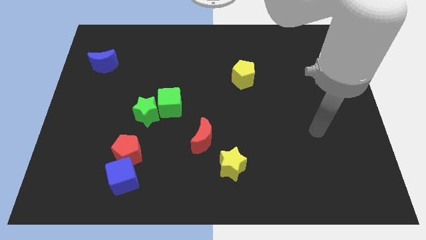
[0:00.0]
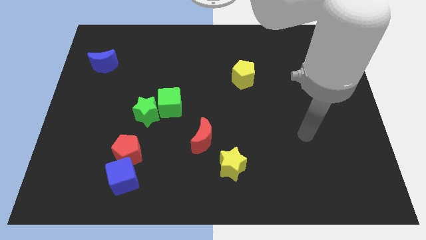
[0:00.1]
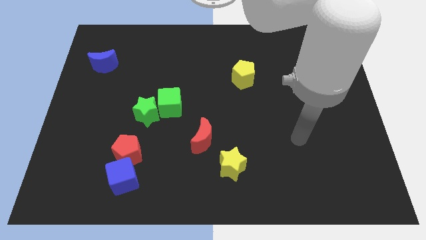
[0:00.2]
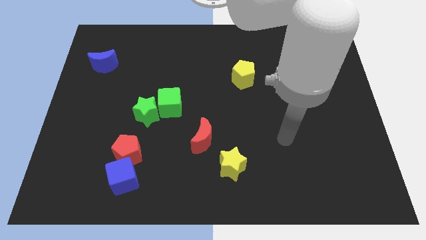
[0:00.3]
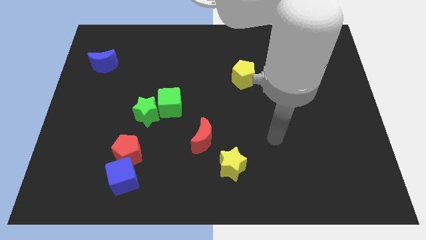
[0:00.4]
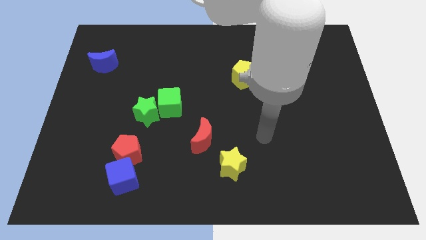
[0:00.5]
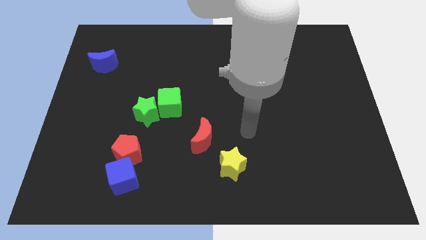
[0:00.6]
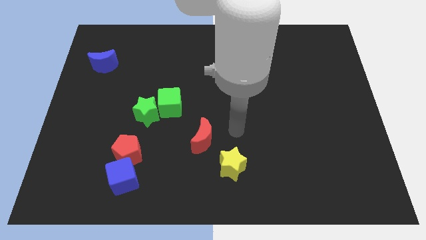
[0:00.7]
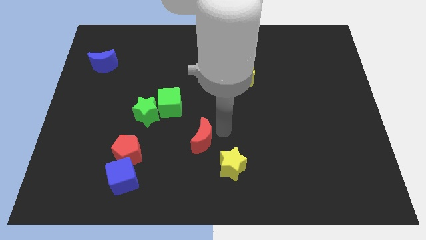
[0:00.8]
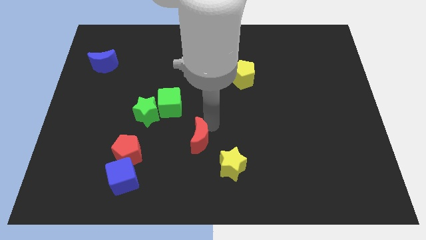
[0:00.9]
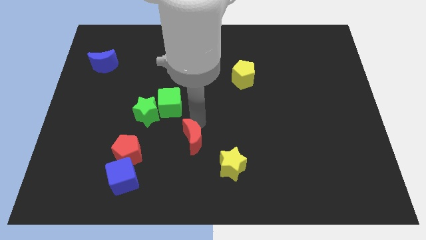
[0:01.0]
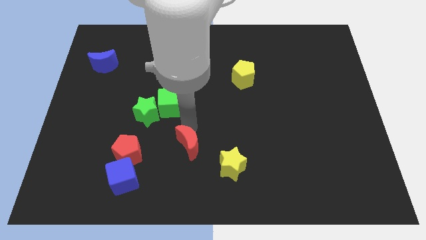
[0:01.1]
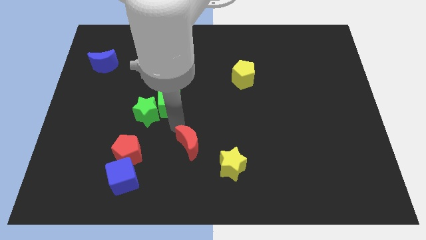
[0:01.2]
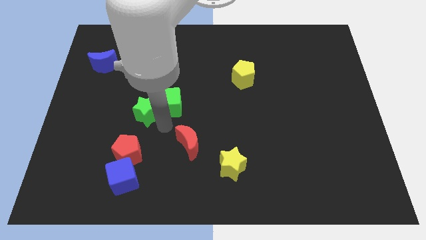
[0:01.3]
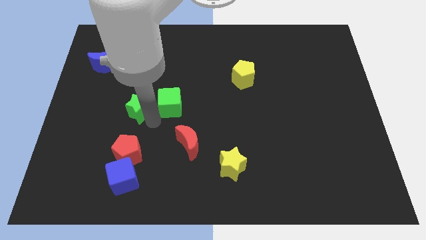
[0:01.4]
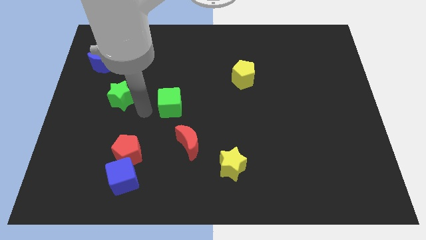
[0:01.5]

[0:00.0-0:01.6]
move the green cube away from the green star

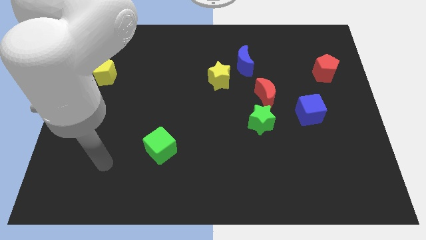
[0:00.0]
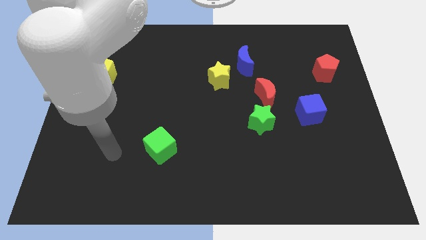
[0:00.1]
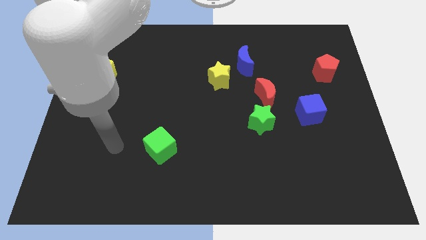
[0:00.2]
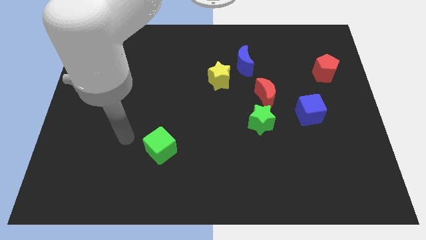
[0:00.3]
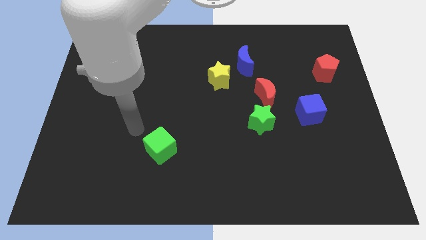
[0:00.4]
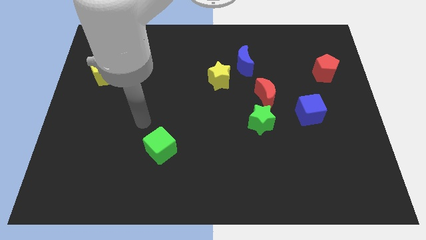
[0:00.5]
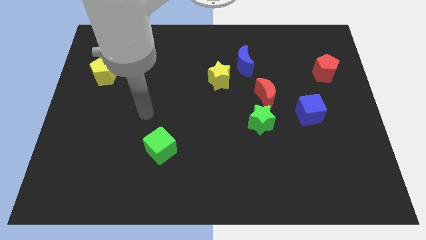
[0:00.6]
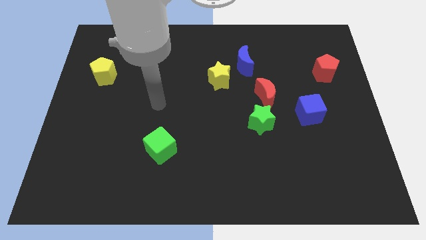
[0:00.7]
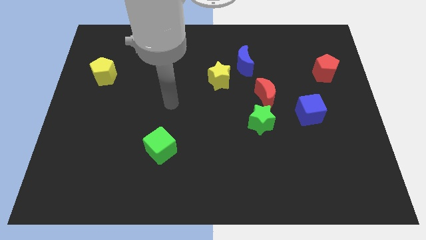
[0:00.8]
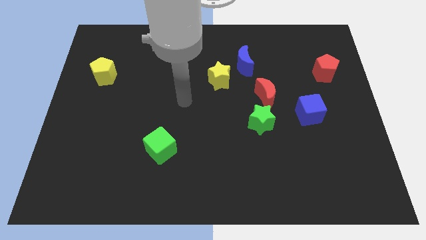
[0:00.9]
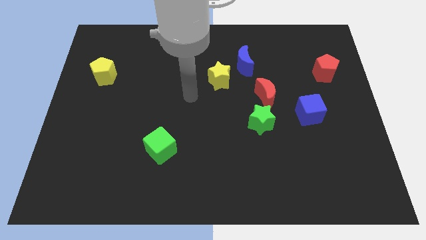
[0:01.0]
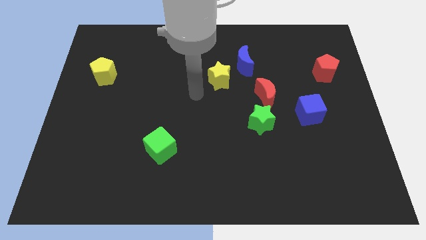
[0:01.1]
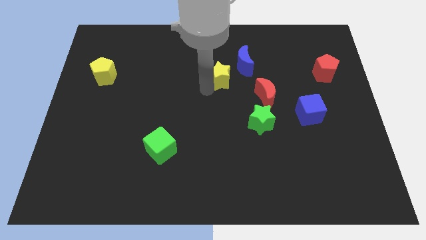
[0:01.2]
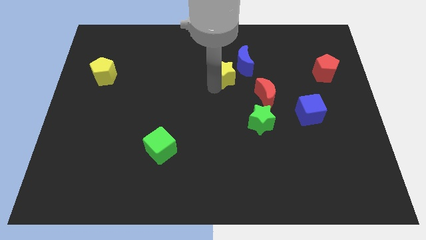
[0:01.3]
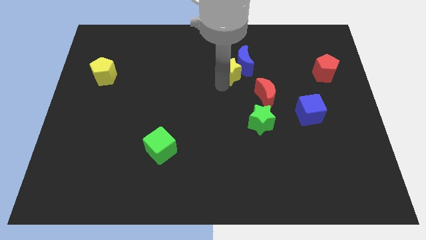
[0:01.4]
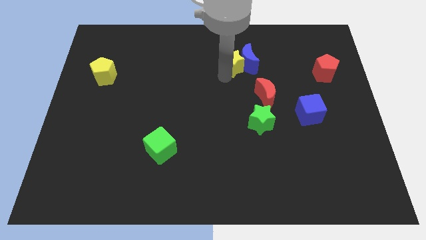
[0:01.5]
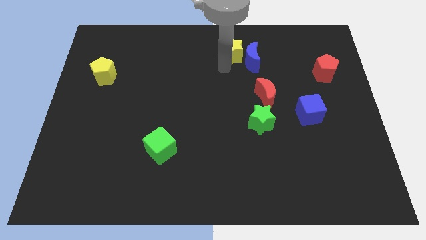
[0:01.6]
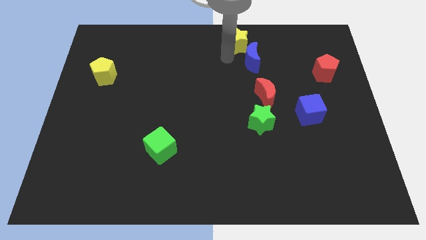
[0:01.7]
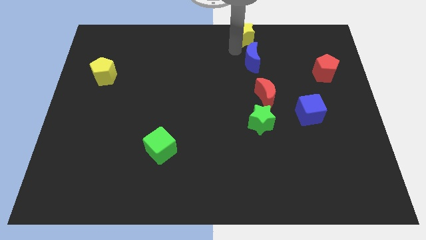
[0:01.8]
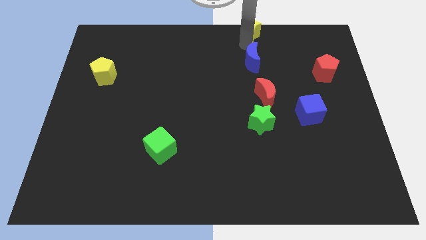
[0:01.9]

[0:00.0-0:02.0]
move the blue moon away from the yellow star

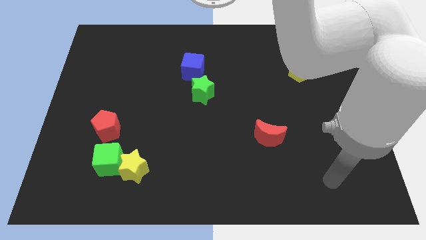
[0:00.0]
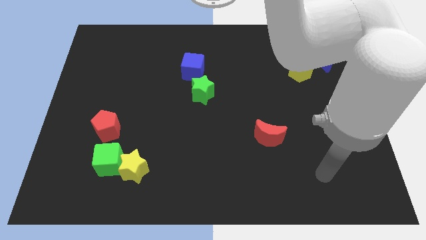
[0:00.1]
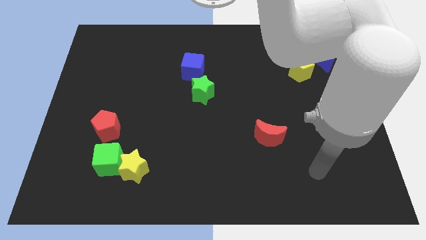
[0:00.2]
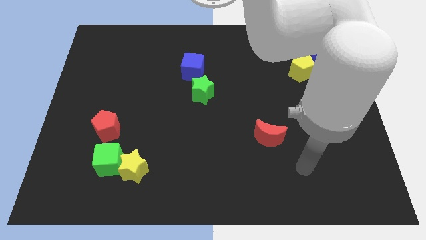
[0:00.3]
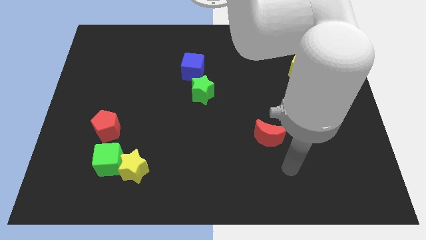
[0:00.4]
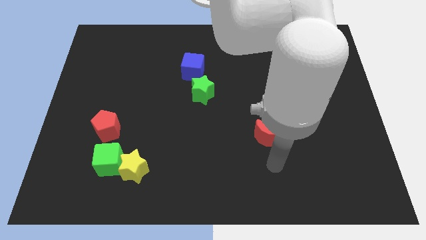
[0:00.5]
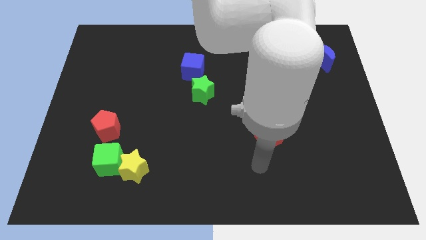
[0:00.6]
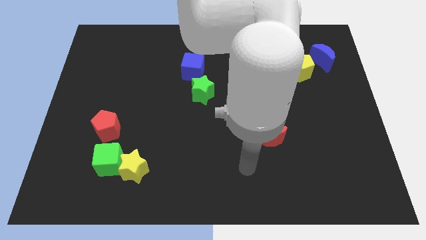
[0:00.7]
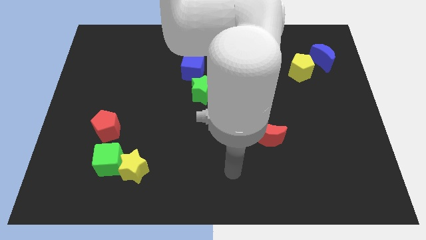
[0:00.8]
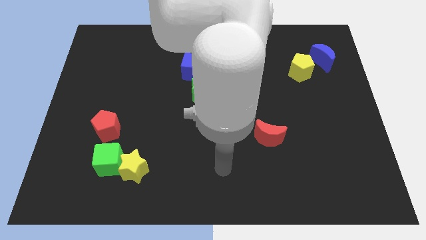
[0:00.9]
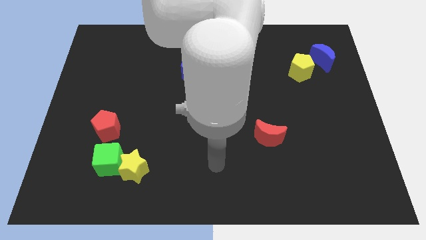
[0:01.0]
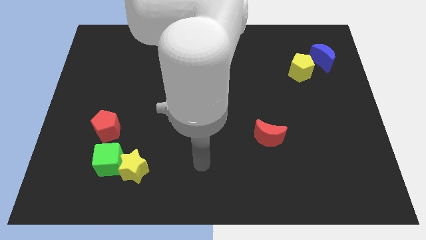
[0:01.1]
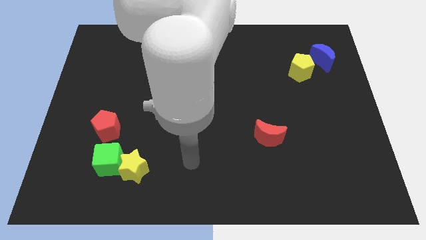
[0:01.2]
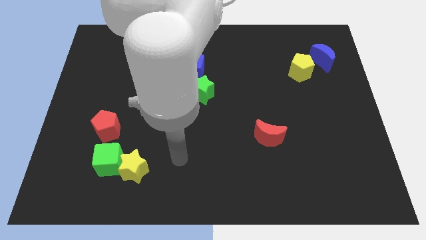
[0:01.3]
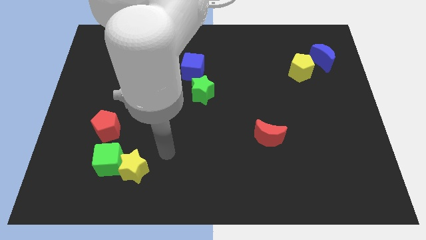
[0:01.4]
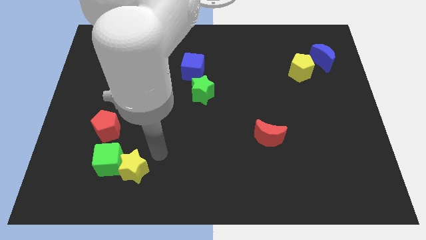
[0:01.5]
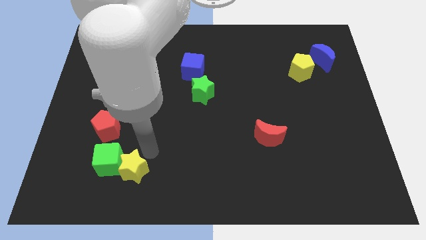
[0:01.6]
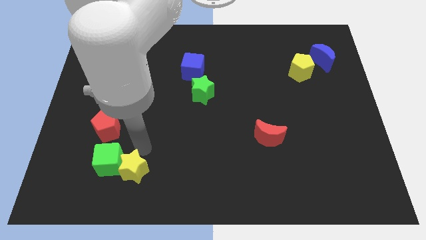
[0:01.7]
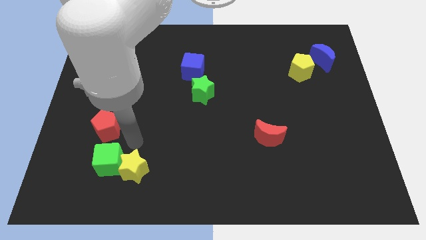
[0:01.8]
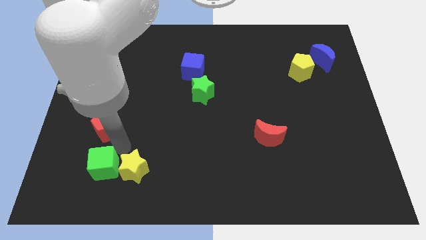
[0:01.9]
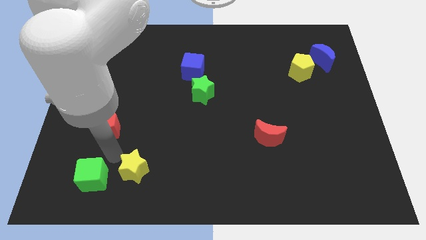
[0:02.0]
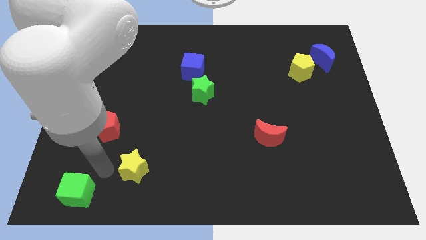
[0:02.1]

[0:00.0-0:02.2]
move the yellow star away from the green cube

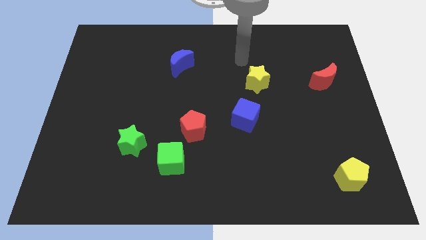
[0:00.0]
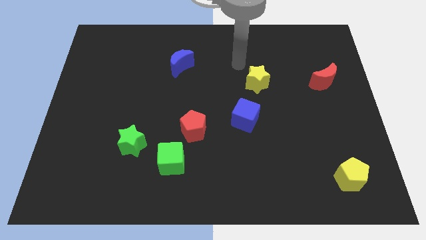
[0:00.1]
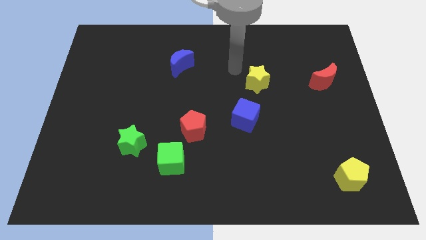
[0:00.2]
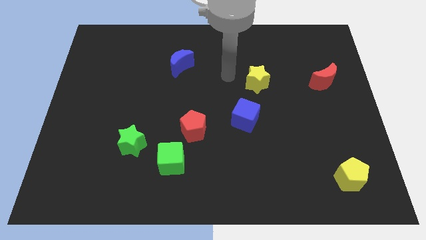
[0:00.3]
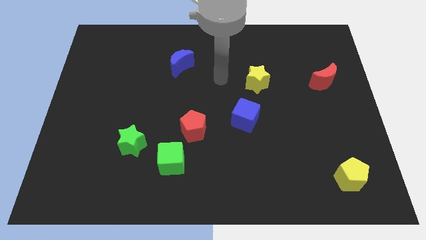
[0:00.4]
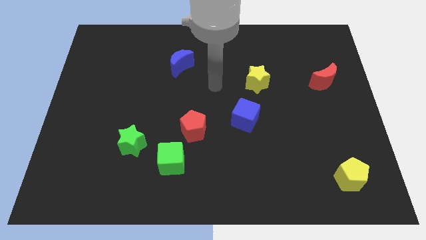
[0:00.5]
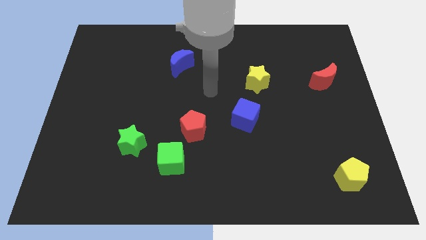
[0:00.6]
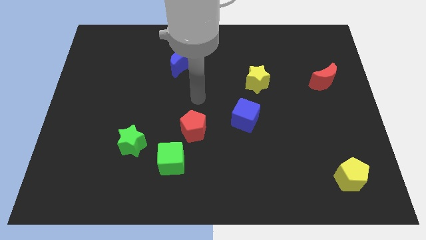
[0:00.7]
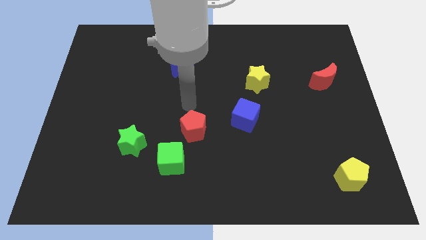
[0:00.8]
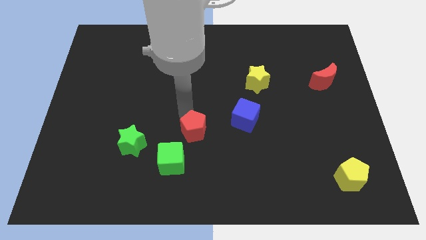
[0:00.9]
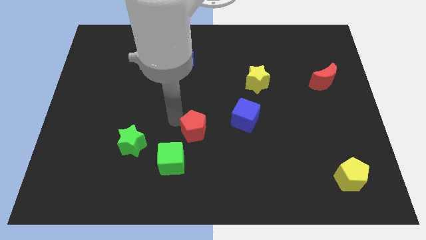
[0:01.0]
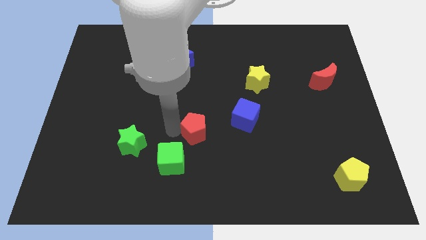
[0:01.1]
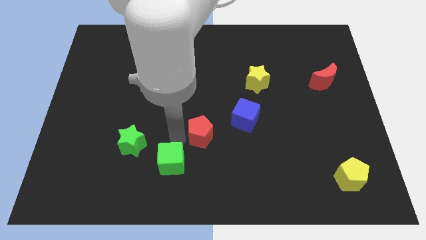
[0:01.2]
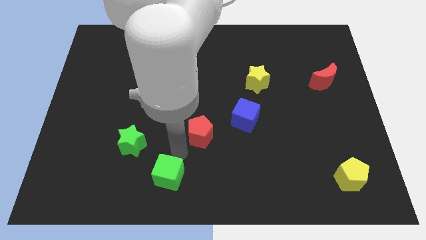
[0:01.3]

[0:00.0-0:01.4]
move the red pentagon away from the green cube

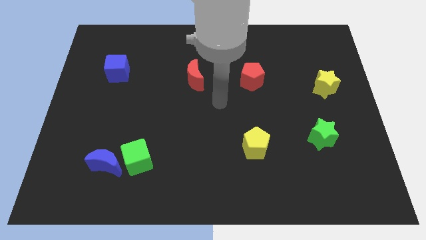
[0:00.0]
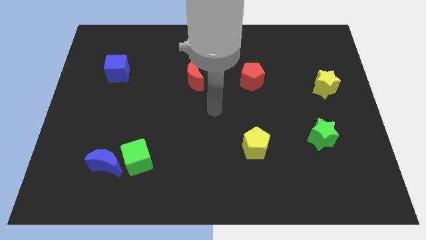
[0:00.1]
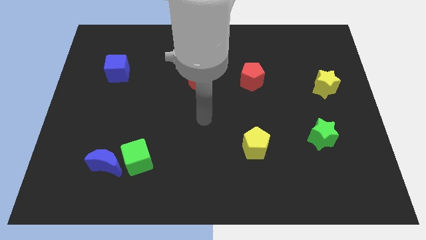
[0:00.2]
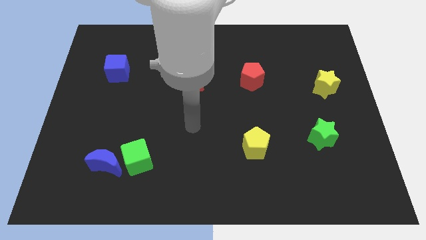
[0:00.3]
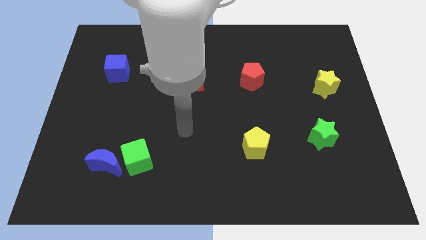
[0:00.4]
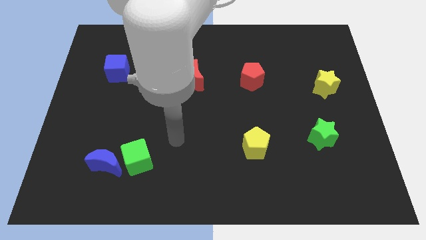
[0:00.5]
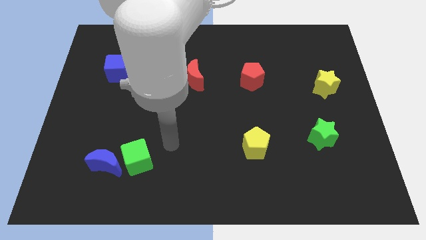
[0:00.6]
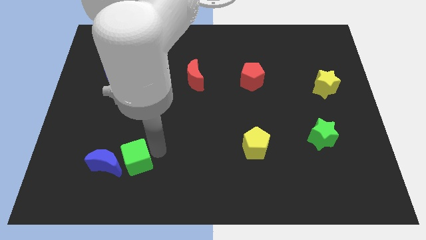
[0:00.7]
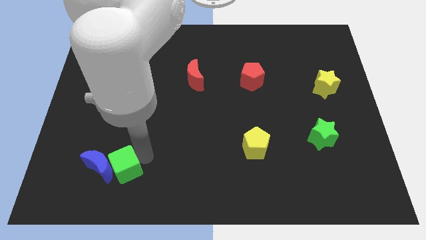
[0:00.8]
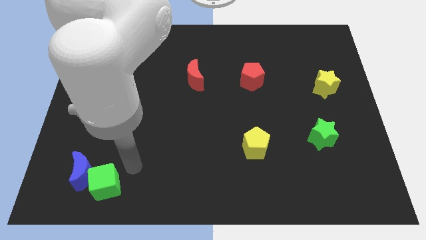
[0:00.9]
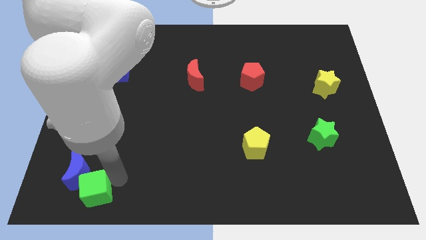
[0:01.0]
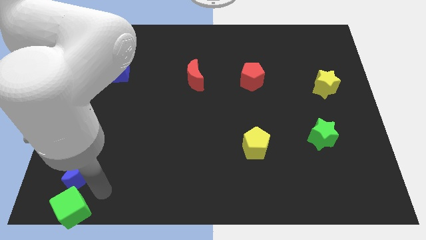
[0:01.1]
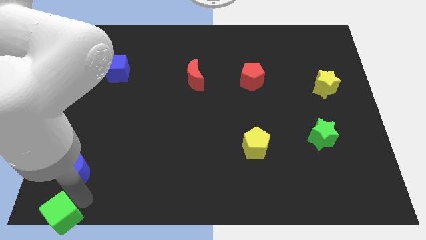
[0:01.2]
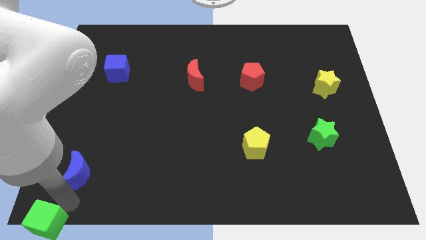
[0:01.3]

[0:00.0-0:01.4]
pull the blue moon apart from the green cube

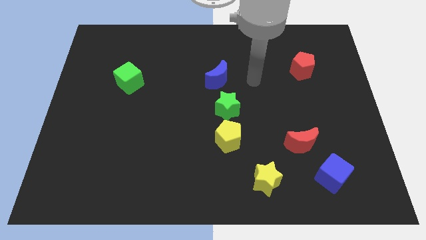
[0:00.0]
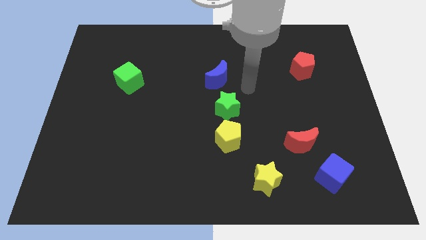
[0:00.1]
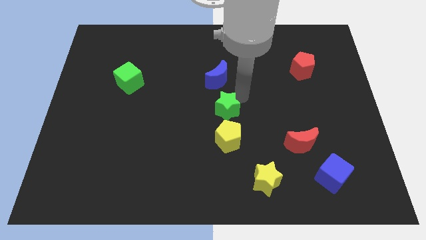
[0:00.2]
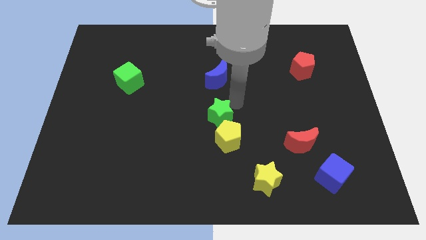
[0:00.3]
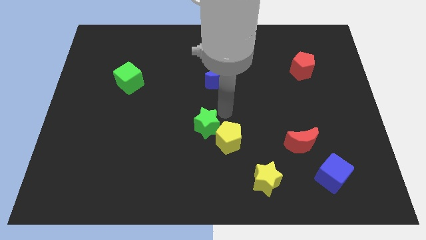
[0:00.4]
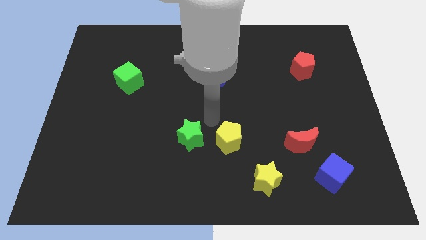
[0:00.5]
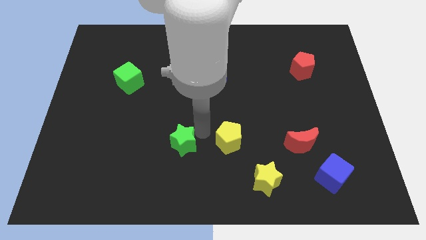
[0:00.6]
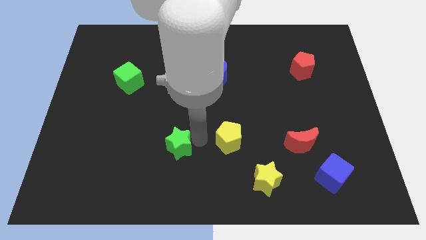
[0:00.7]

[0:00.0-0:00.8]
pull the yellow pentagon apart from the green star
